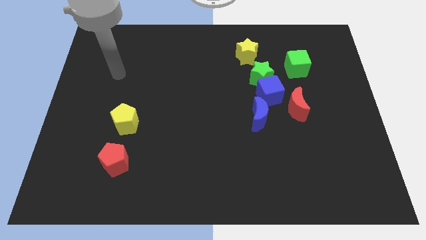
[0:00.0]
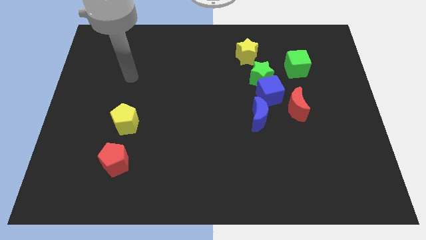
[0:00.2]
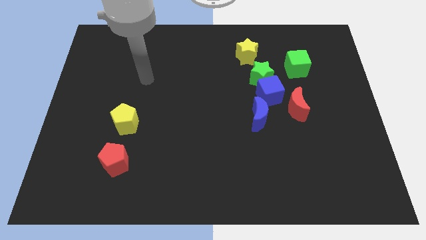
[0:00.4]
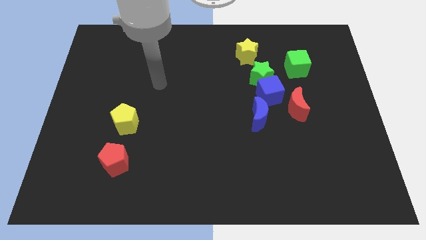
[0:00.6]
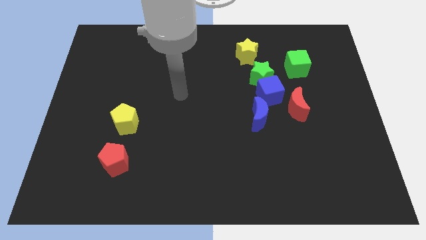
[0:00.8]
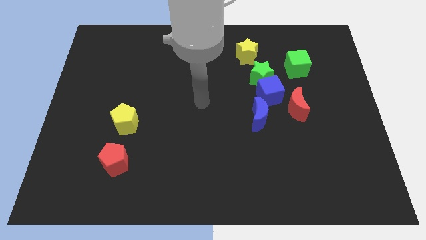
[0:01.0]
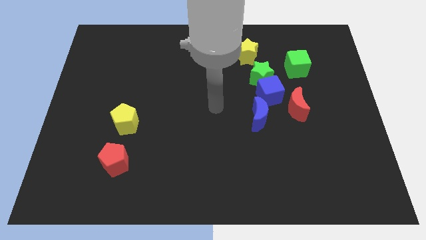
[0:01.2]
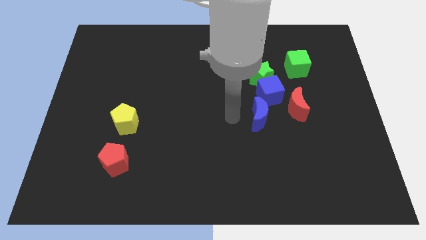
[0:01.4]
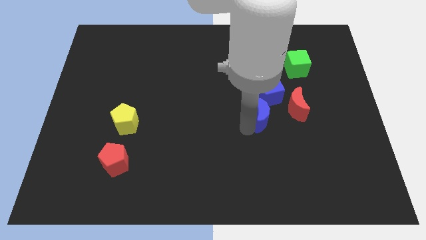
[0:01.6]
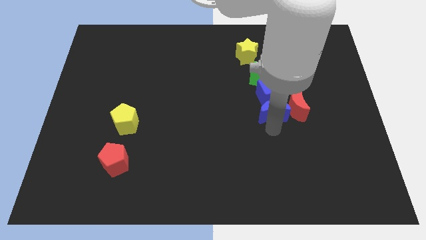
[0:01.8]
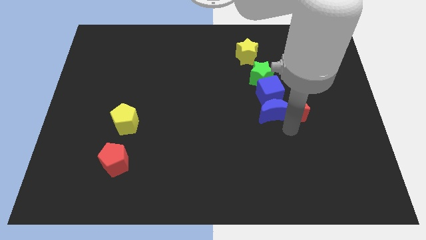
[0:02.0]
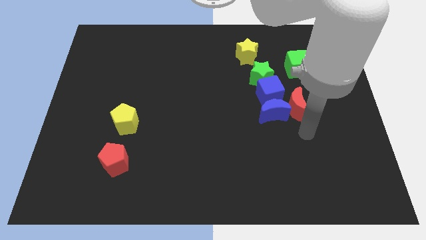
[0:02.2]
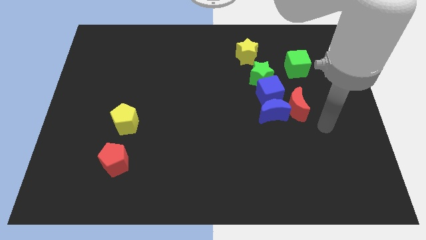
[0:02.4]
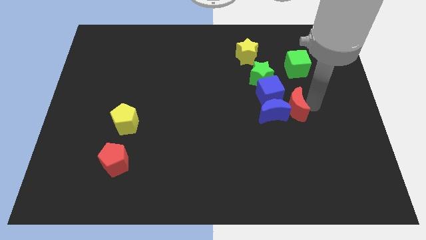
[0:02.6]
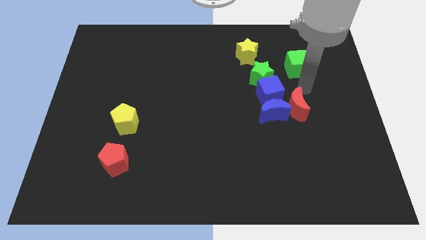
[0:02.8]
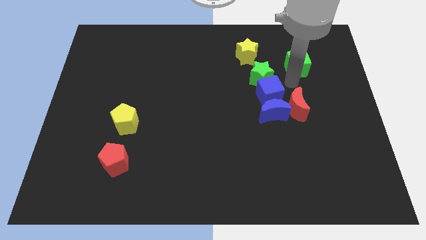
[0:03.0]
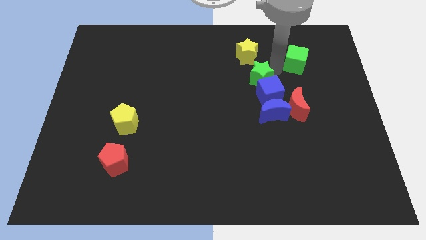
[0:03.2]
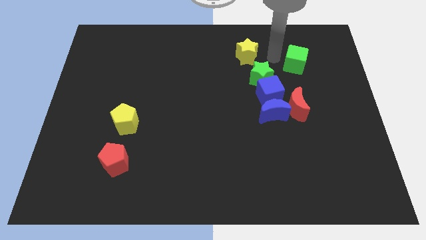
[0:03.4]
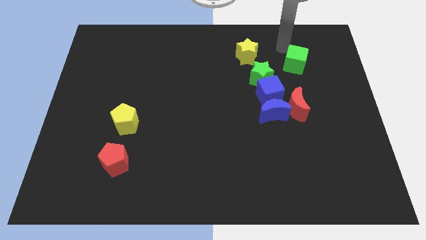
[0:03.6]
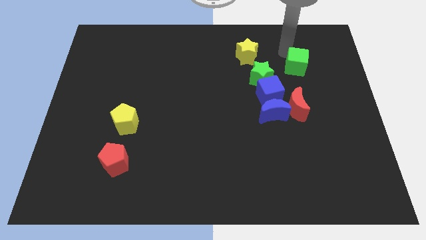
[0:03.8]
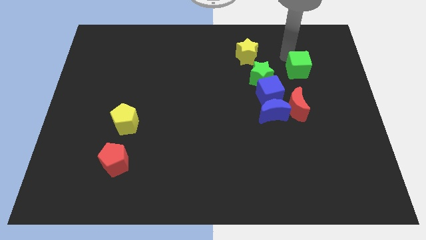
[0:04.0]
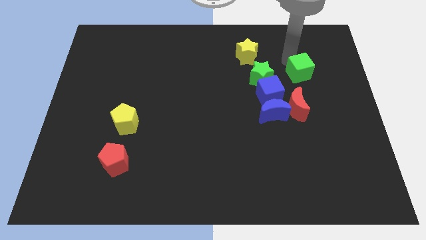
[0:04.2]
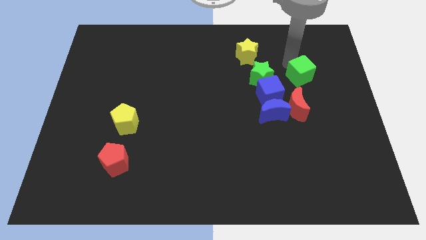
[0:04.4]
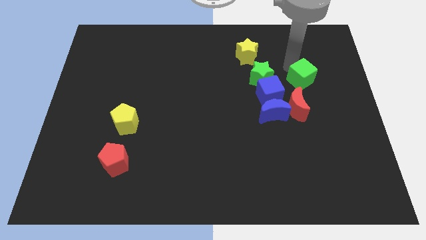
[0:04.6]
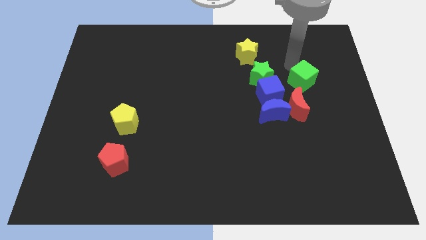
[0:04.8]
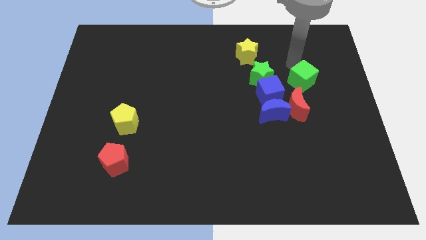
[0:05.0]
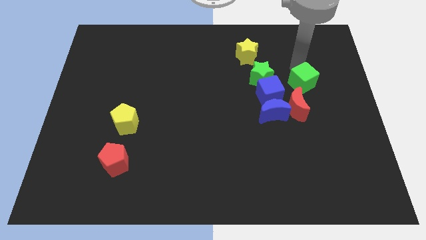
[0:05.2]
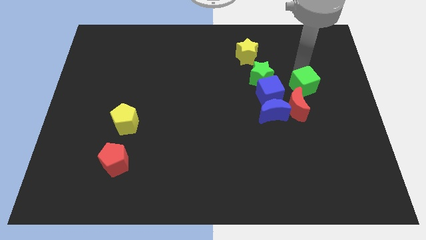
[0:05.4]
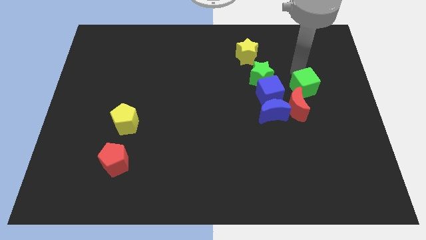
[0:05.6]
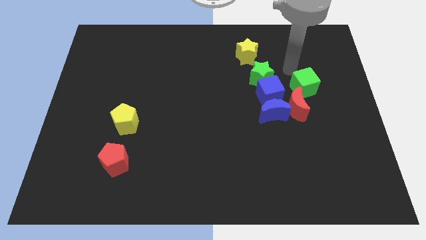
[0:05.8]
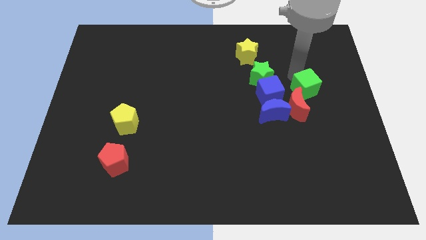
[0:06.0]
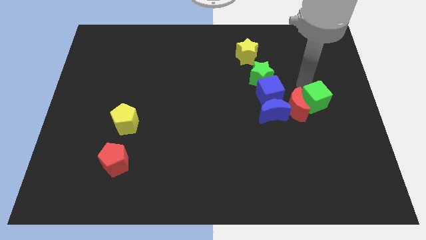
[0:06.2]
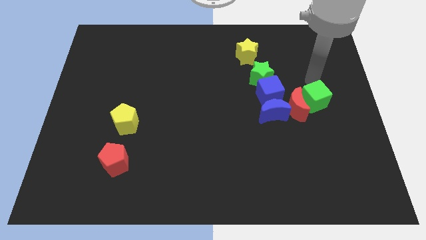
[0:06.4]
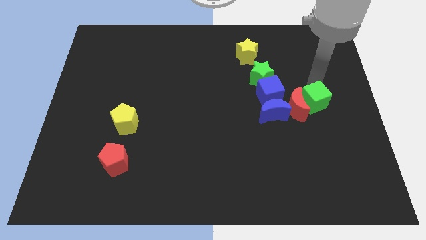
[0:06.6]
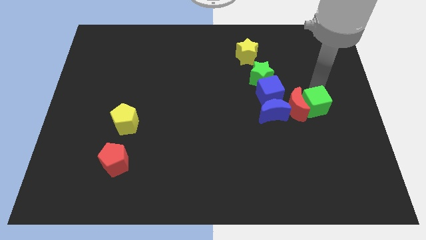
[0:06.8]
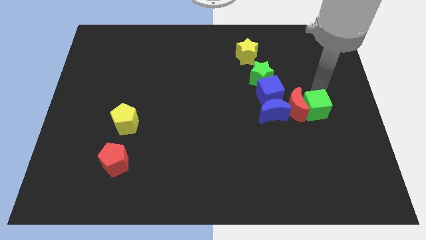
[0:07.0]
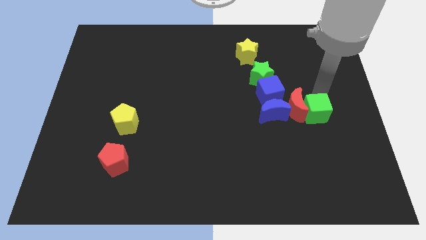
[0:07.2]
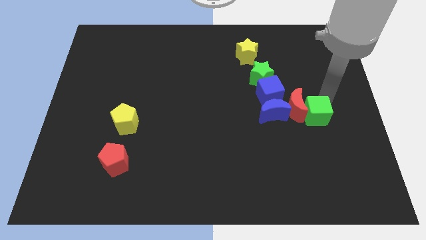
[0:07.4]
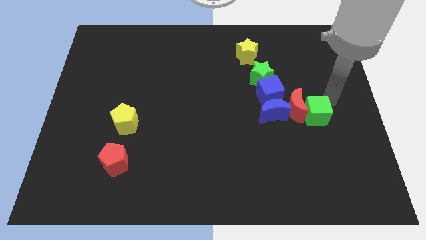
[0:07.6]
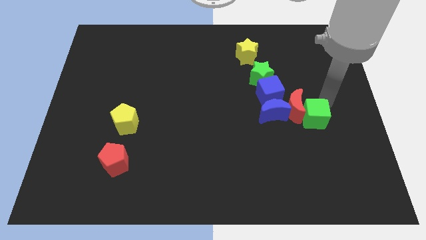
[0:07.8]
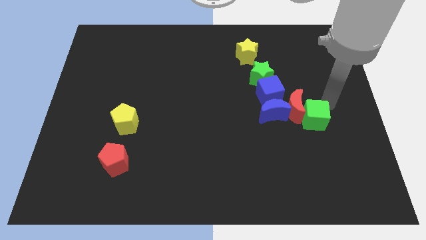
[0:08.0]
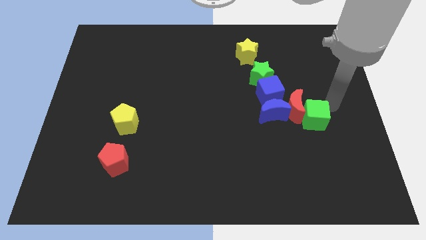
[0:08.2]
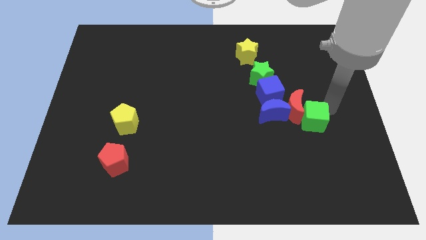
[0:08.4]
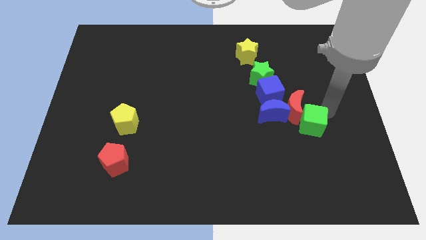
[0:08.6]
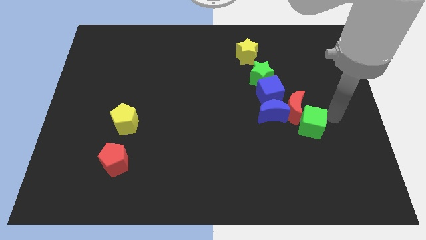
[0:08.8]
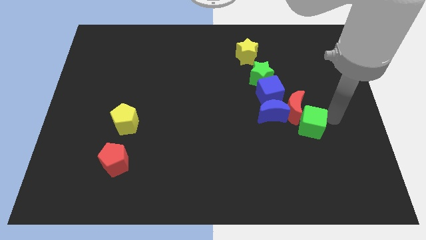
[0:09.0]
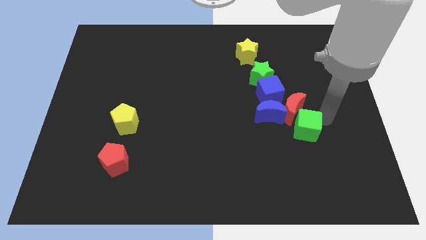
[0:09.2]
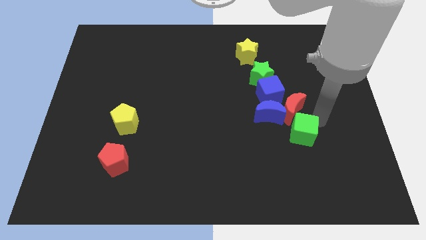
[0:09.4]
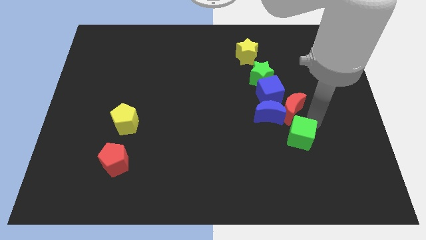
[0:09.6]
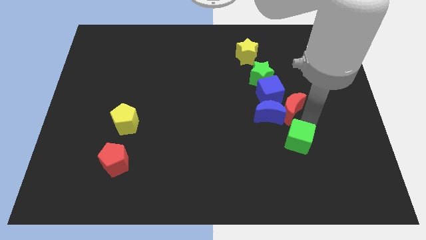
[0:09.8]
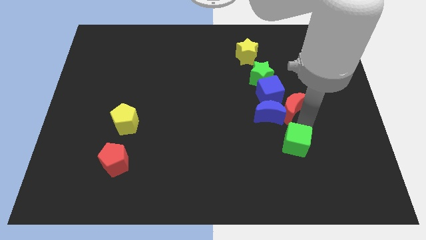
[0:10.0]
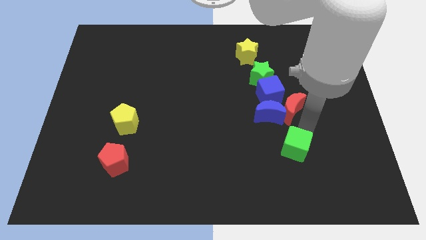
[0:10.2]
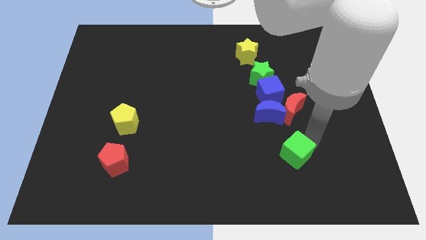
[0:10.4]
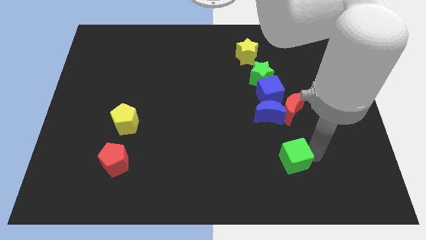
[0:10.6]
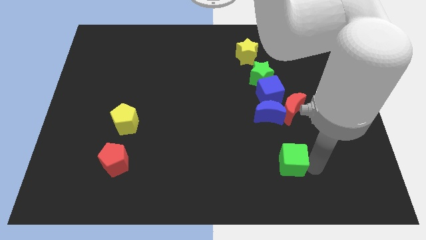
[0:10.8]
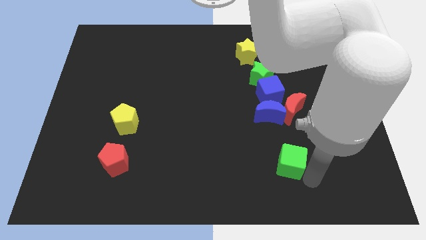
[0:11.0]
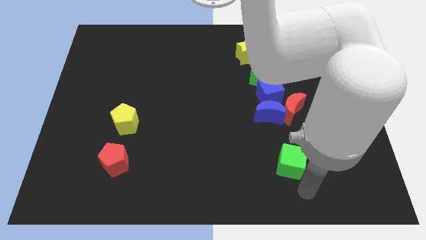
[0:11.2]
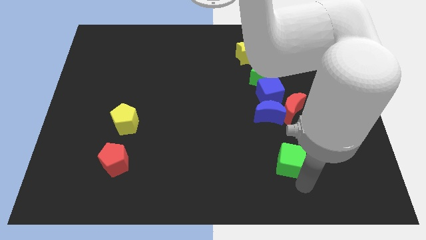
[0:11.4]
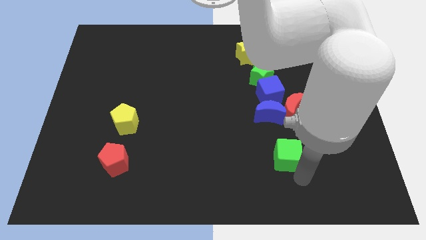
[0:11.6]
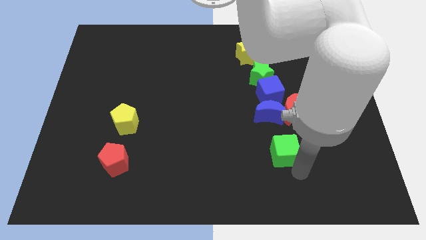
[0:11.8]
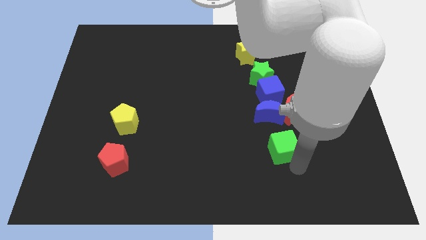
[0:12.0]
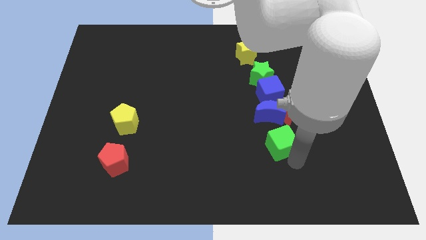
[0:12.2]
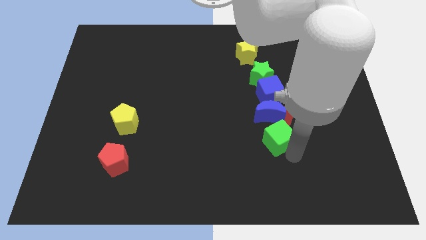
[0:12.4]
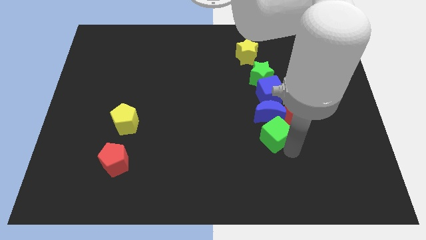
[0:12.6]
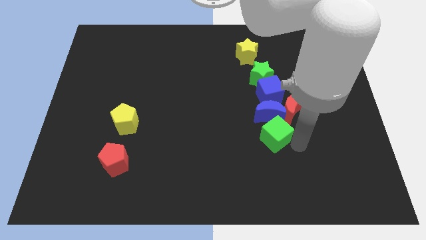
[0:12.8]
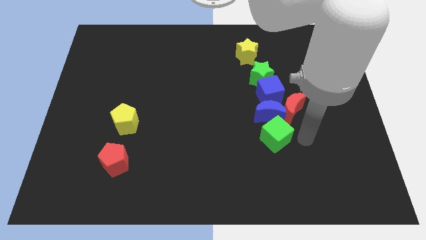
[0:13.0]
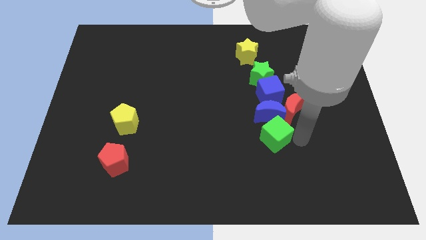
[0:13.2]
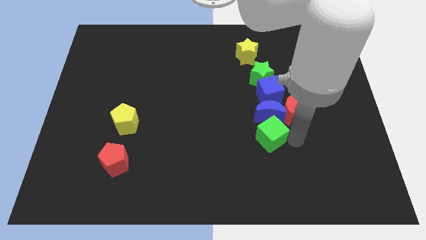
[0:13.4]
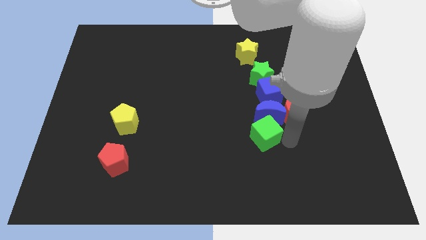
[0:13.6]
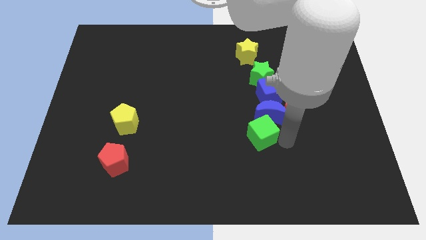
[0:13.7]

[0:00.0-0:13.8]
slide the green cube diagonally down and to the left

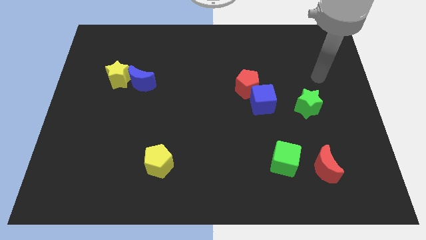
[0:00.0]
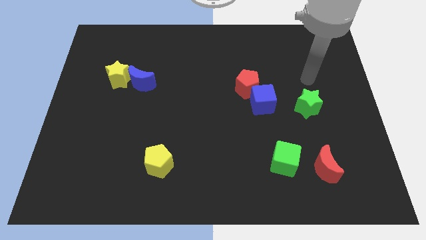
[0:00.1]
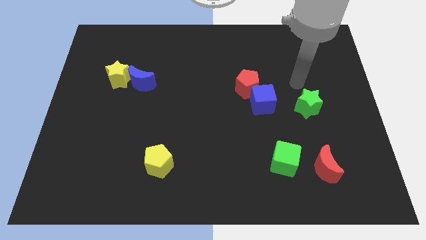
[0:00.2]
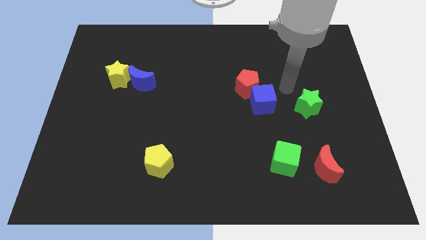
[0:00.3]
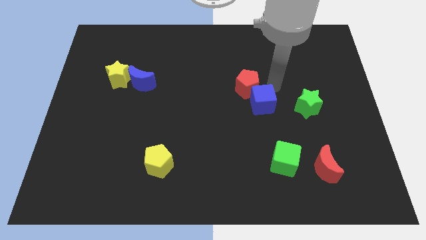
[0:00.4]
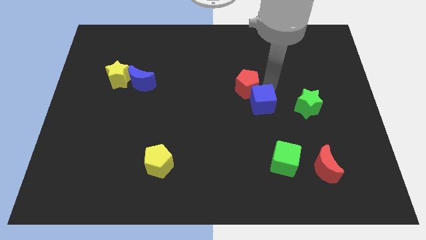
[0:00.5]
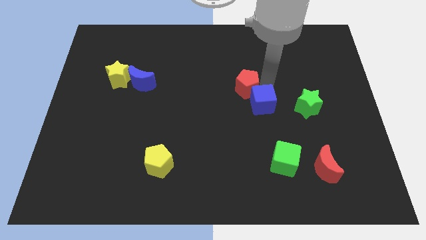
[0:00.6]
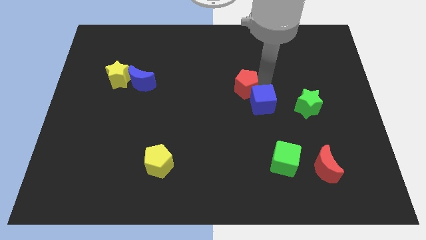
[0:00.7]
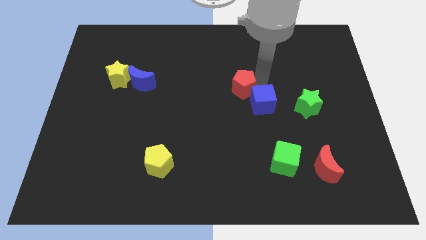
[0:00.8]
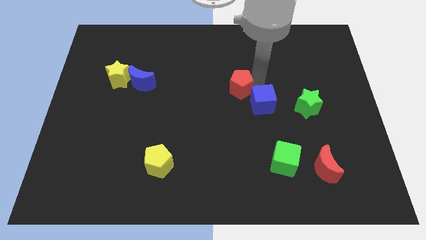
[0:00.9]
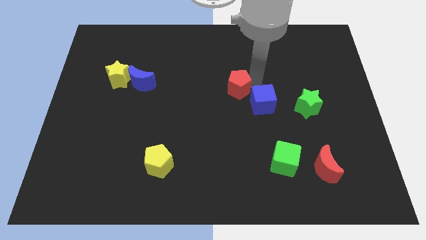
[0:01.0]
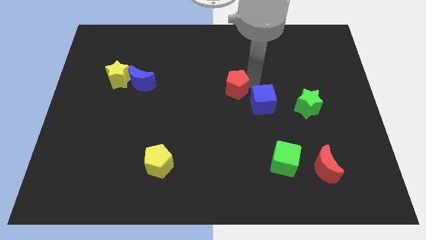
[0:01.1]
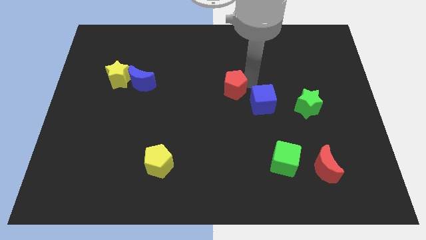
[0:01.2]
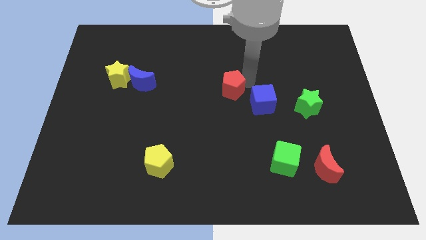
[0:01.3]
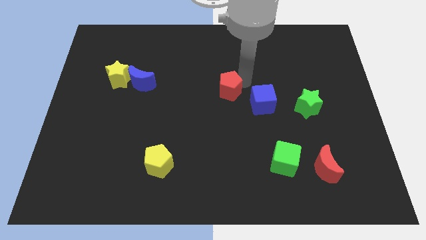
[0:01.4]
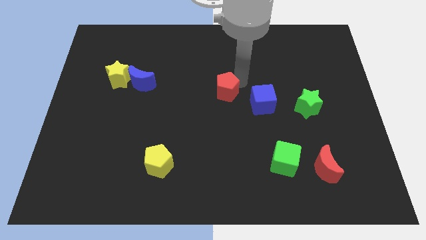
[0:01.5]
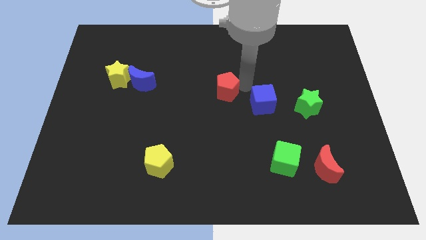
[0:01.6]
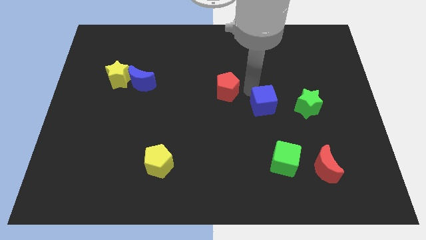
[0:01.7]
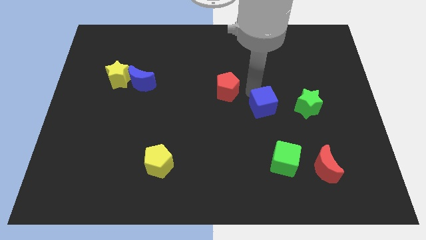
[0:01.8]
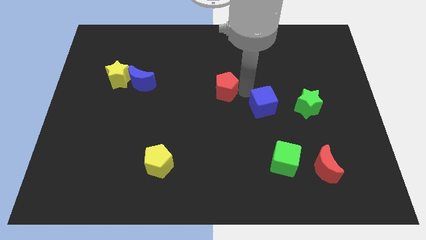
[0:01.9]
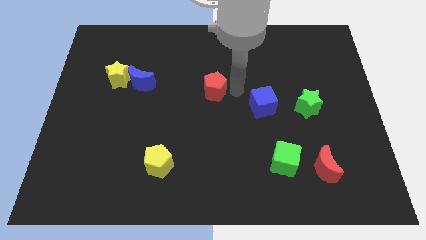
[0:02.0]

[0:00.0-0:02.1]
push the red pentagon a little bit to the left
